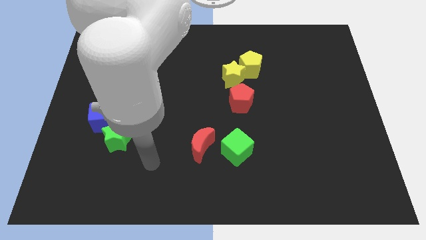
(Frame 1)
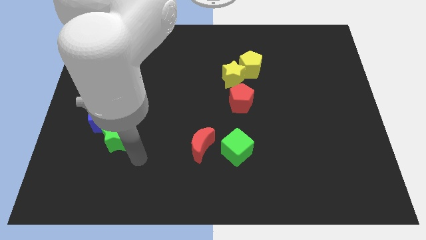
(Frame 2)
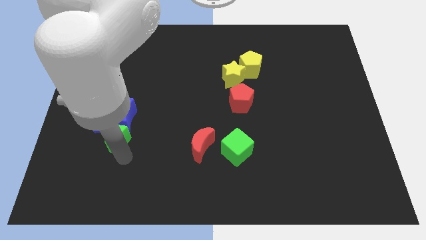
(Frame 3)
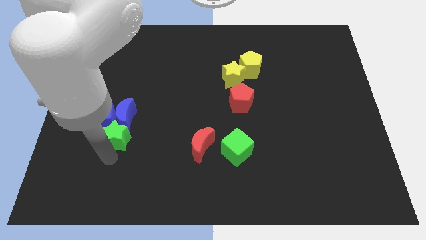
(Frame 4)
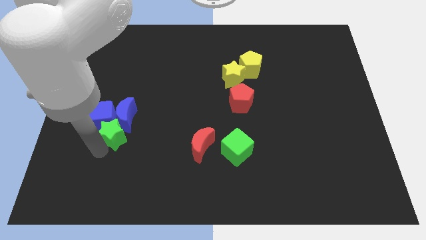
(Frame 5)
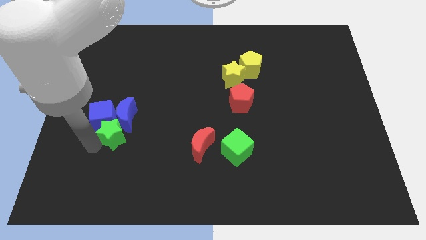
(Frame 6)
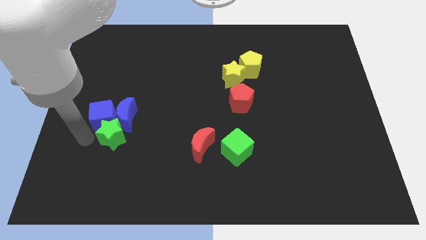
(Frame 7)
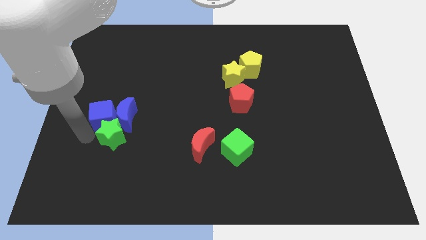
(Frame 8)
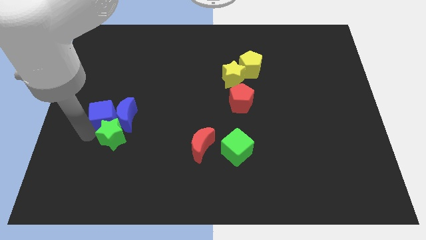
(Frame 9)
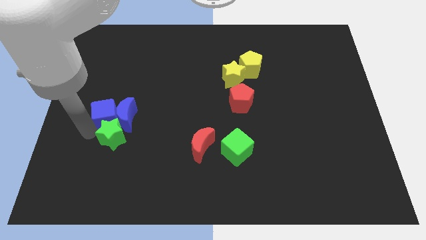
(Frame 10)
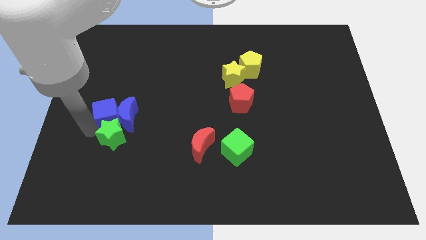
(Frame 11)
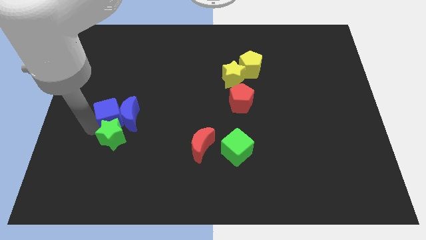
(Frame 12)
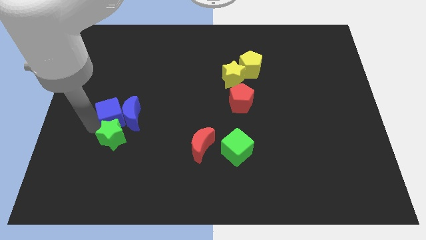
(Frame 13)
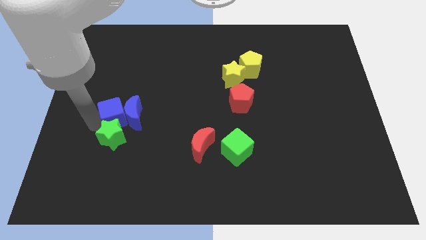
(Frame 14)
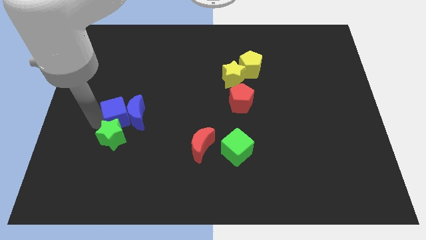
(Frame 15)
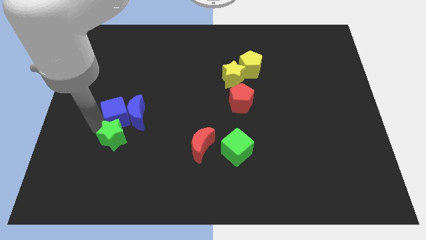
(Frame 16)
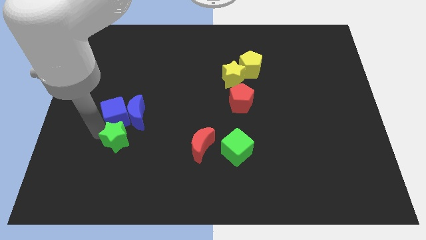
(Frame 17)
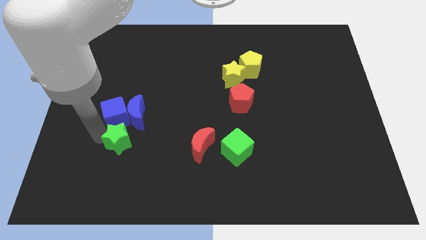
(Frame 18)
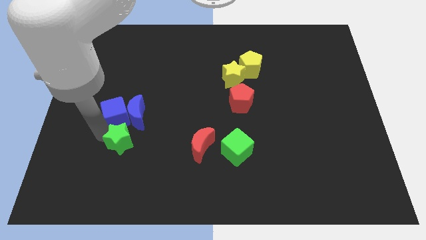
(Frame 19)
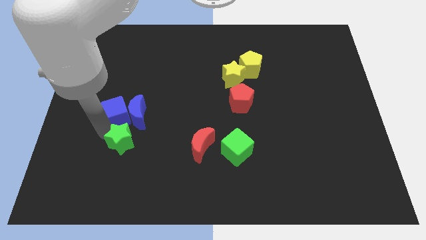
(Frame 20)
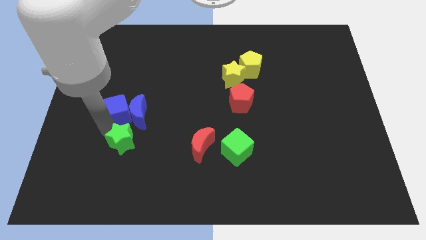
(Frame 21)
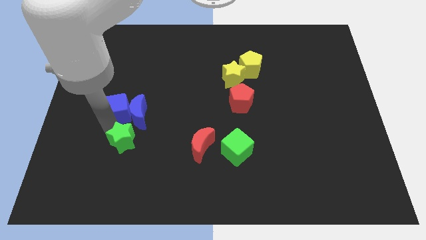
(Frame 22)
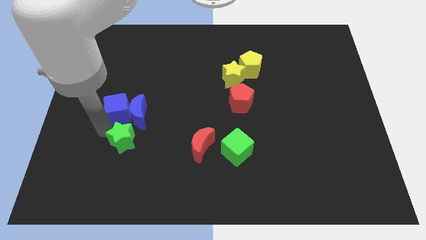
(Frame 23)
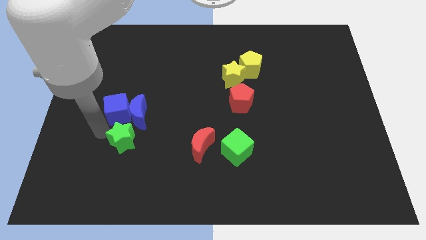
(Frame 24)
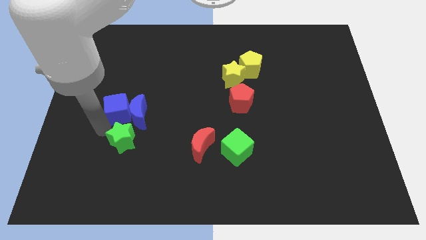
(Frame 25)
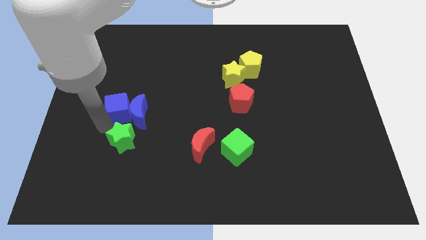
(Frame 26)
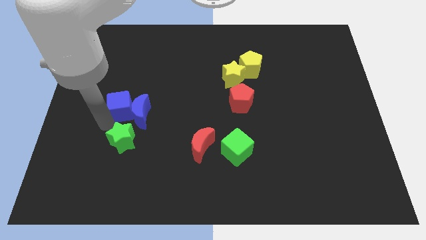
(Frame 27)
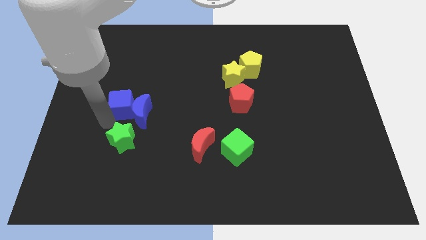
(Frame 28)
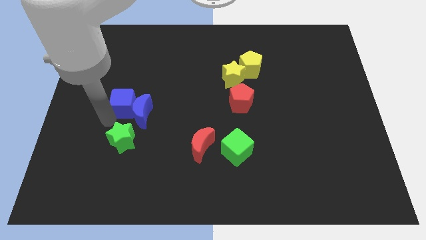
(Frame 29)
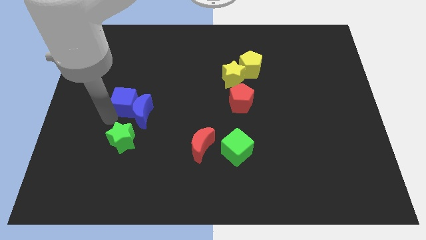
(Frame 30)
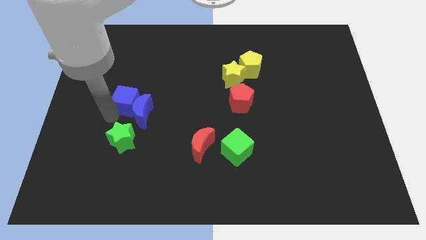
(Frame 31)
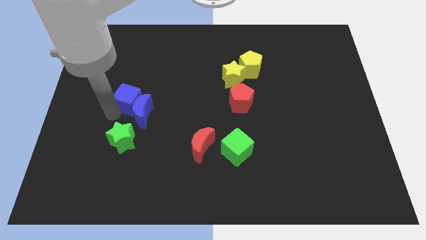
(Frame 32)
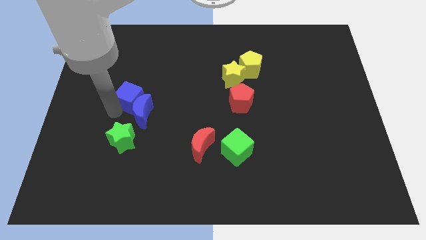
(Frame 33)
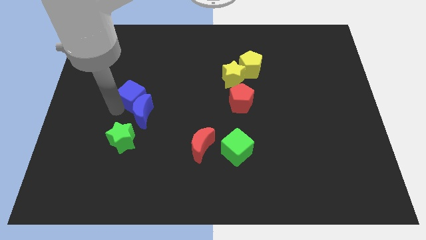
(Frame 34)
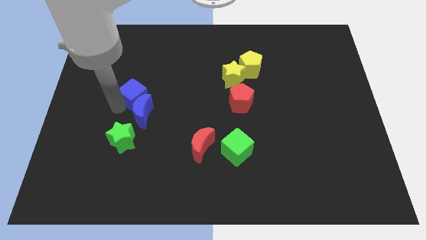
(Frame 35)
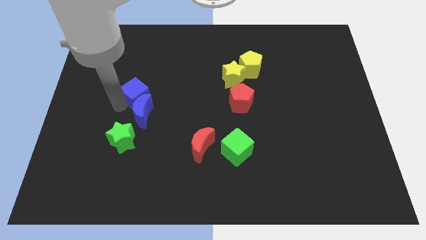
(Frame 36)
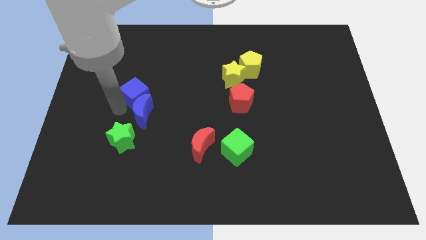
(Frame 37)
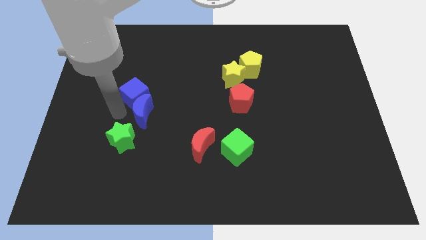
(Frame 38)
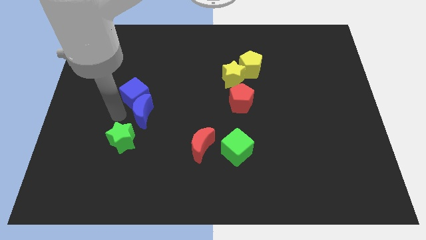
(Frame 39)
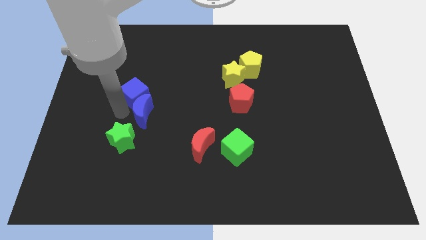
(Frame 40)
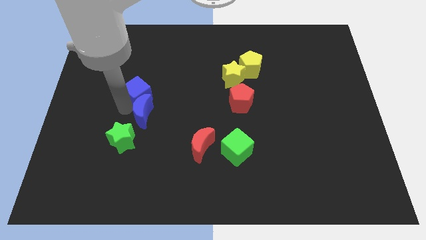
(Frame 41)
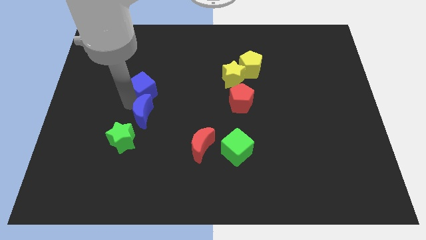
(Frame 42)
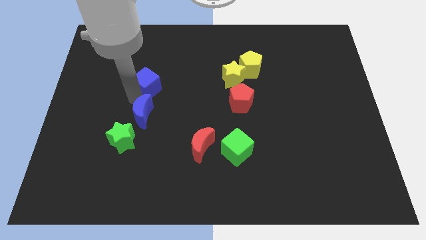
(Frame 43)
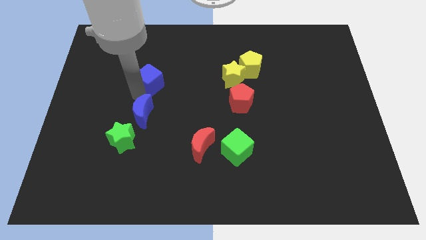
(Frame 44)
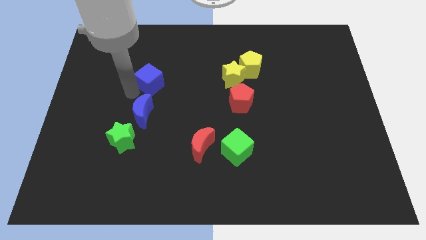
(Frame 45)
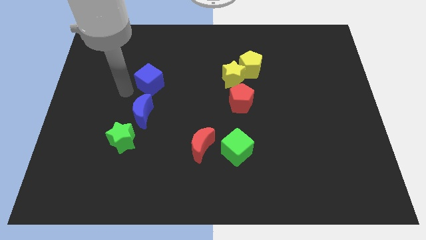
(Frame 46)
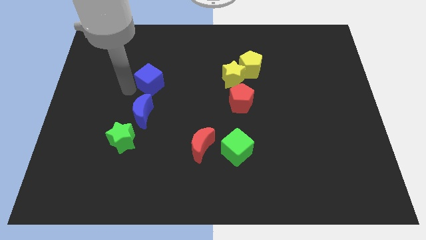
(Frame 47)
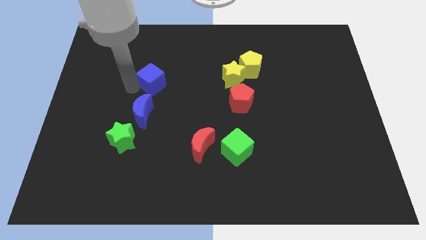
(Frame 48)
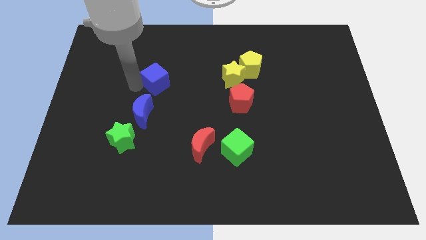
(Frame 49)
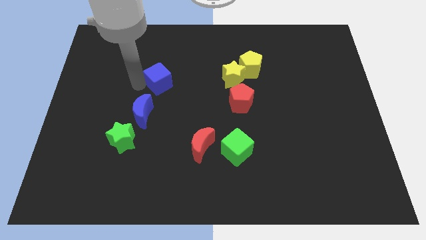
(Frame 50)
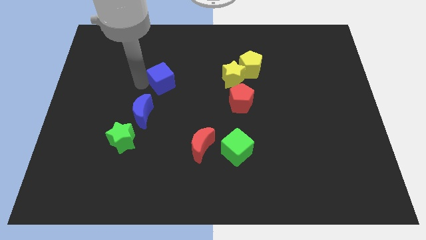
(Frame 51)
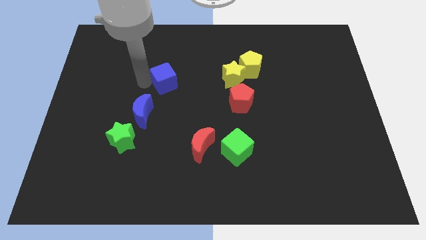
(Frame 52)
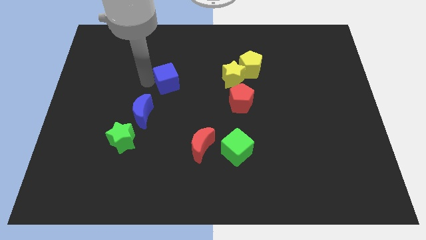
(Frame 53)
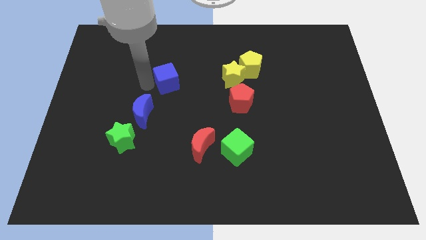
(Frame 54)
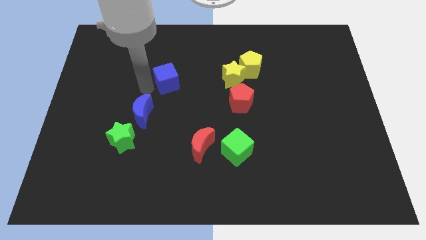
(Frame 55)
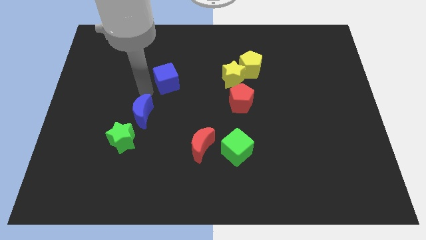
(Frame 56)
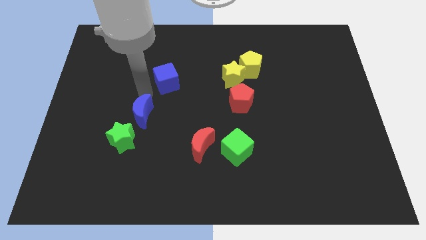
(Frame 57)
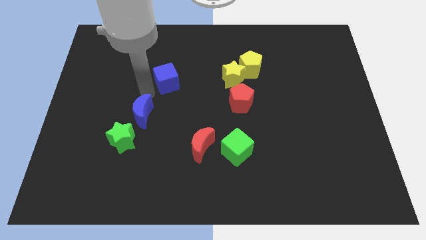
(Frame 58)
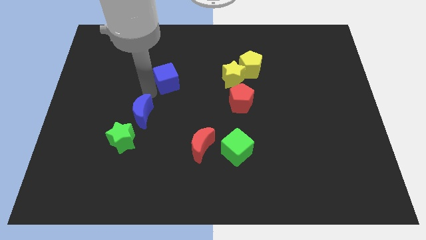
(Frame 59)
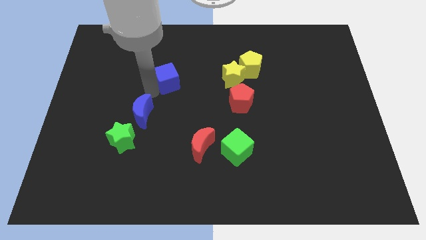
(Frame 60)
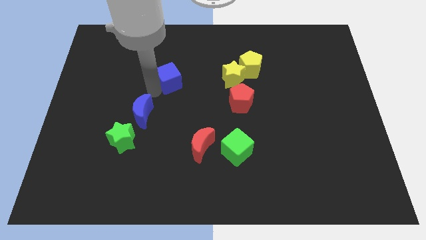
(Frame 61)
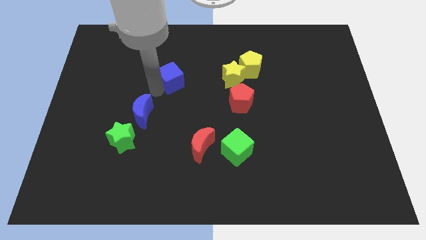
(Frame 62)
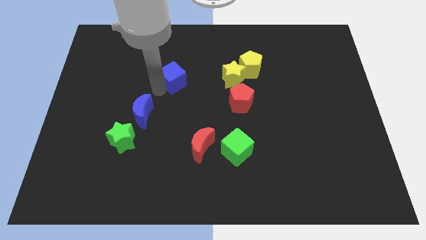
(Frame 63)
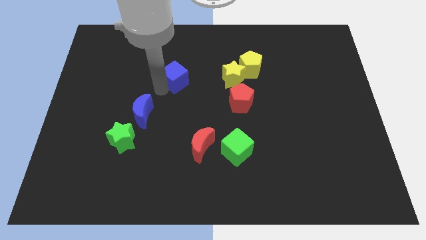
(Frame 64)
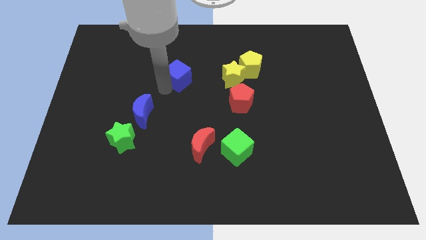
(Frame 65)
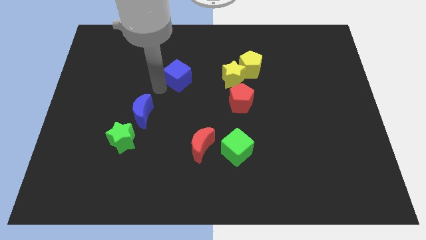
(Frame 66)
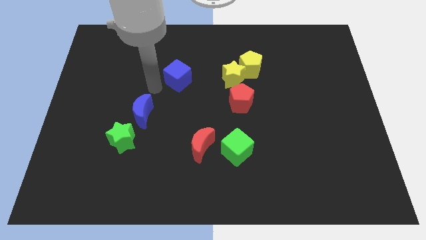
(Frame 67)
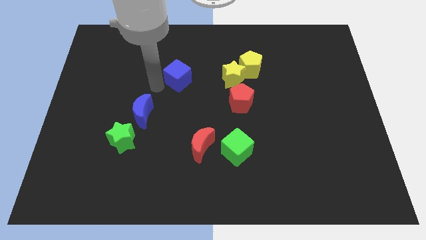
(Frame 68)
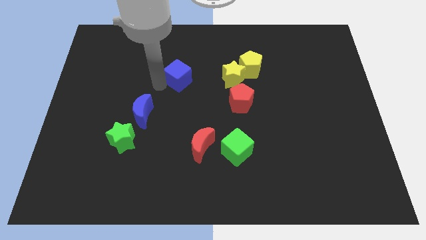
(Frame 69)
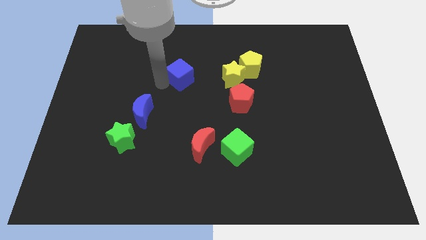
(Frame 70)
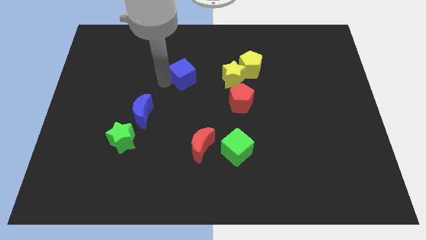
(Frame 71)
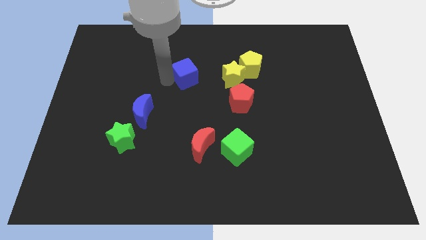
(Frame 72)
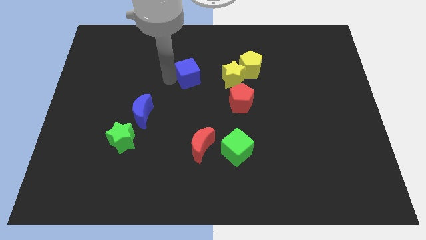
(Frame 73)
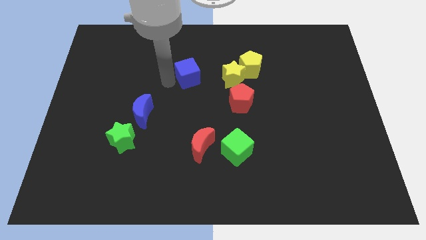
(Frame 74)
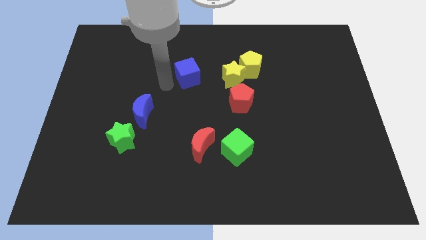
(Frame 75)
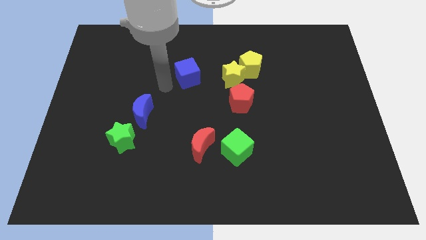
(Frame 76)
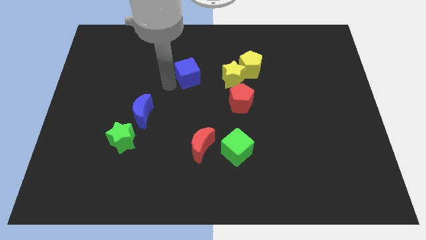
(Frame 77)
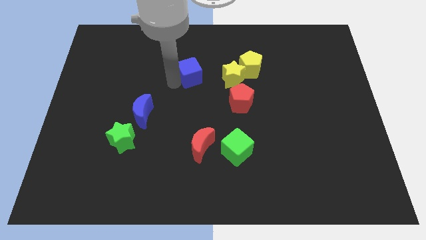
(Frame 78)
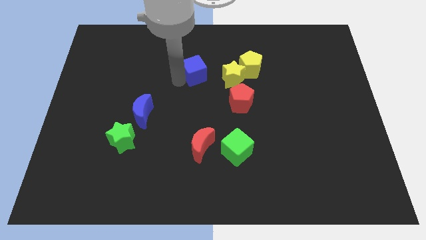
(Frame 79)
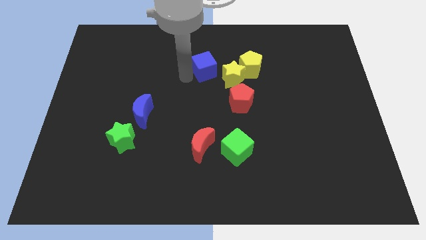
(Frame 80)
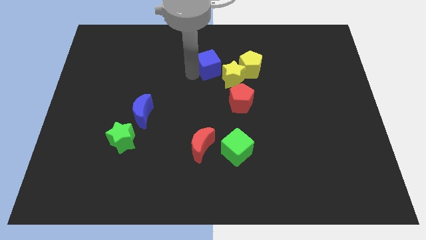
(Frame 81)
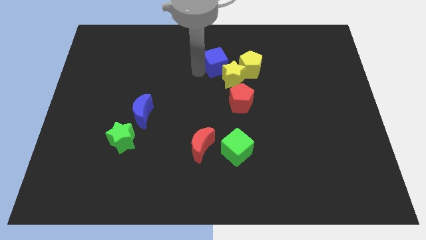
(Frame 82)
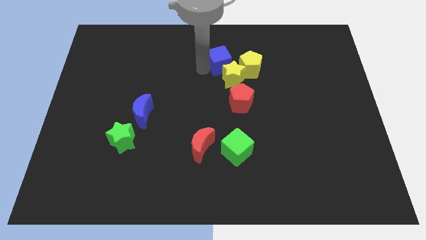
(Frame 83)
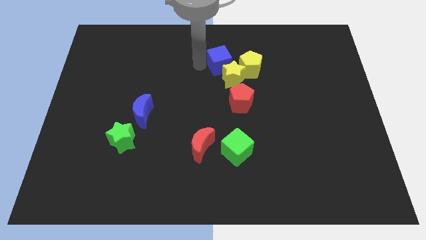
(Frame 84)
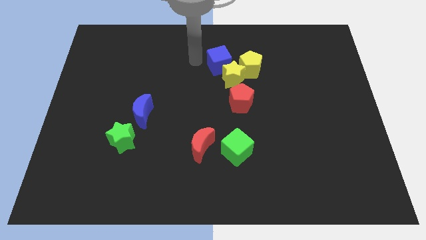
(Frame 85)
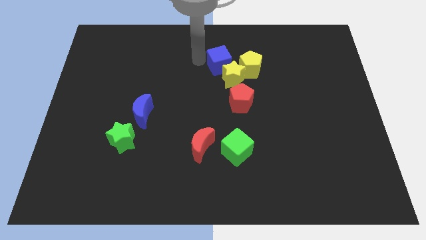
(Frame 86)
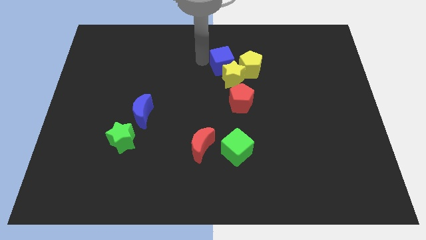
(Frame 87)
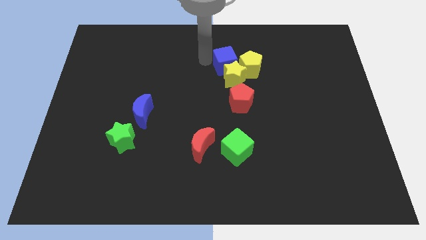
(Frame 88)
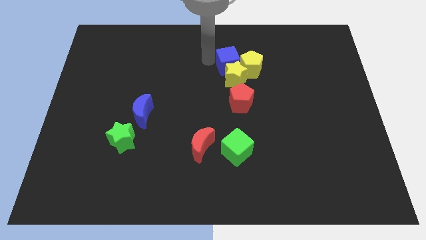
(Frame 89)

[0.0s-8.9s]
move the blue cube to the yellow pentagon
